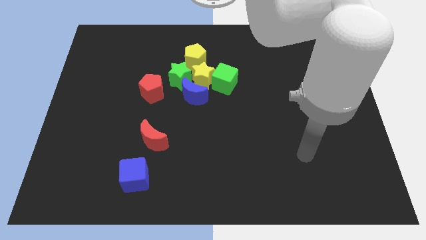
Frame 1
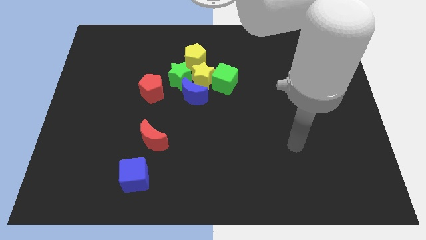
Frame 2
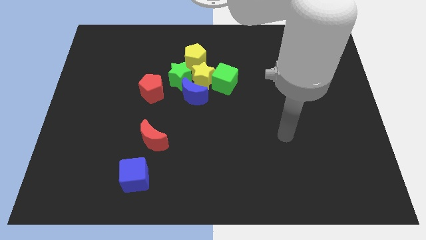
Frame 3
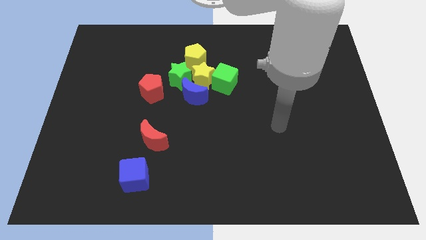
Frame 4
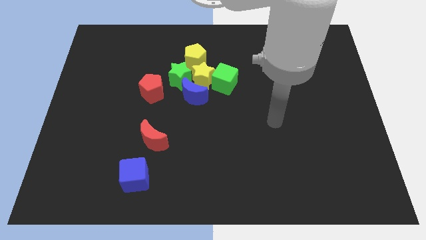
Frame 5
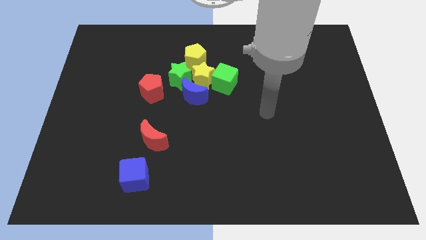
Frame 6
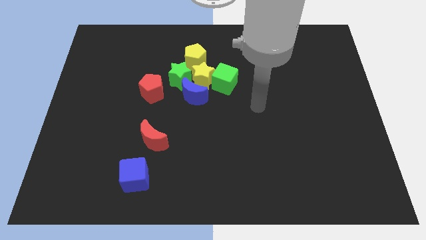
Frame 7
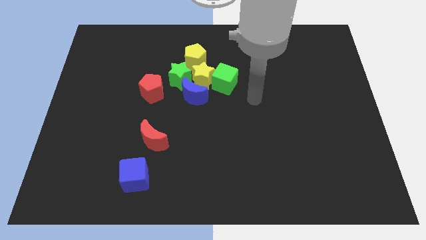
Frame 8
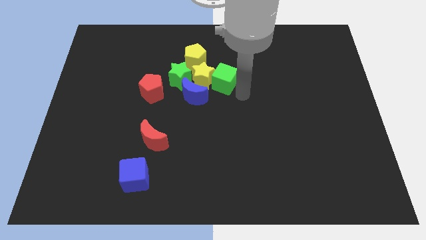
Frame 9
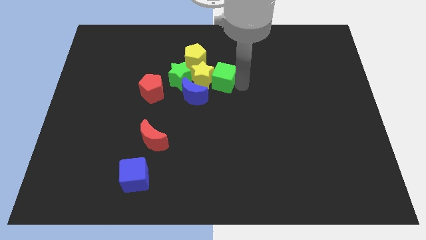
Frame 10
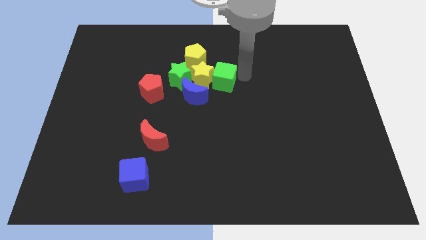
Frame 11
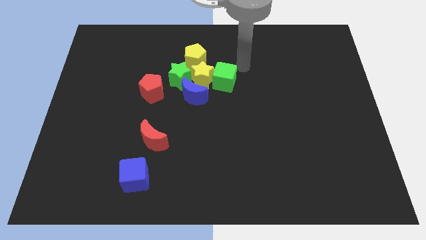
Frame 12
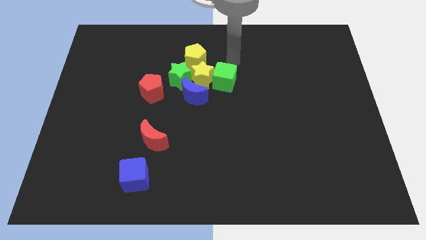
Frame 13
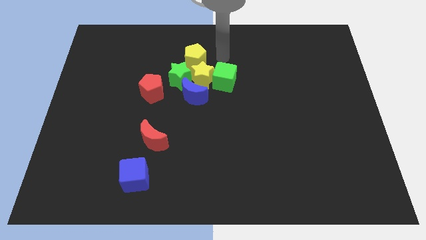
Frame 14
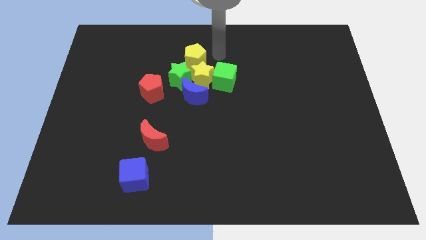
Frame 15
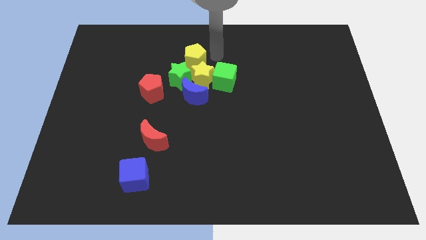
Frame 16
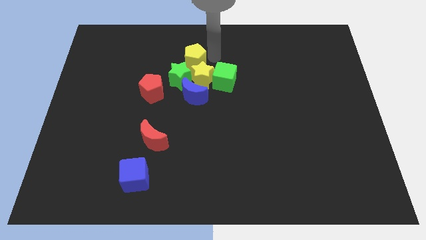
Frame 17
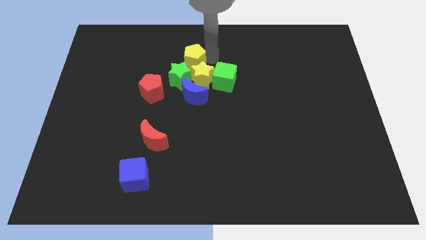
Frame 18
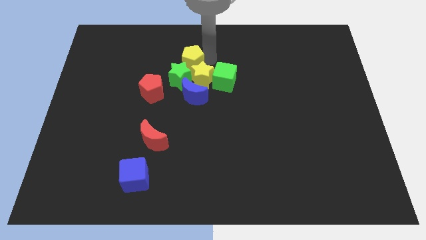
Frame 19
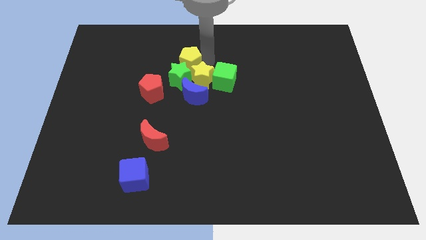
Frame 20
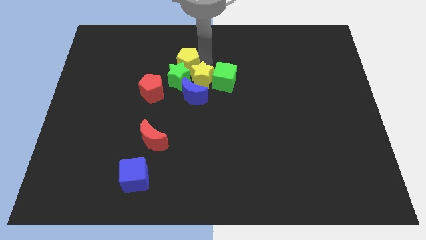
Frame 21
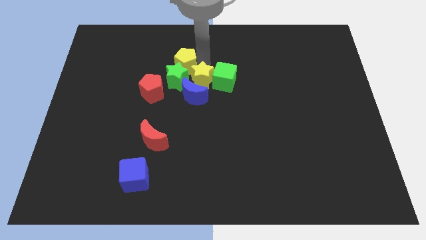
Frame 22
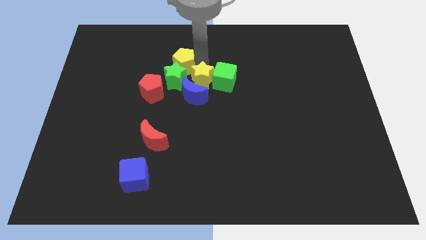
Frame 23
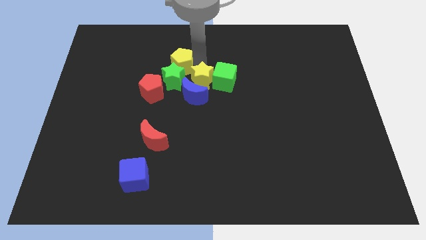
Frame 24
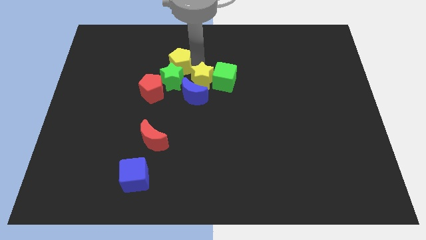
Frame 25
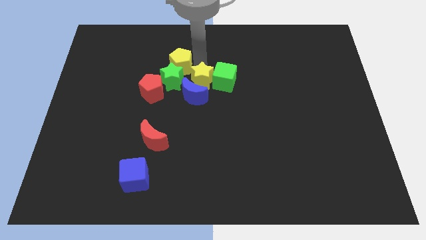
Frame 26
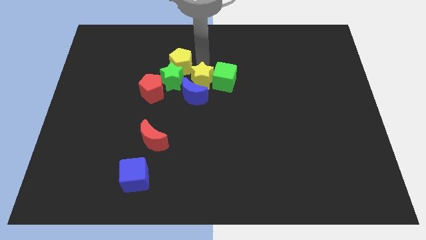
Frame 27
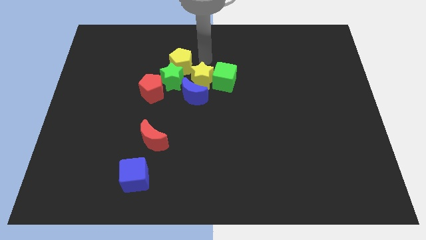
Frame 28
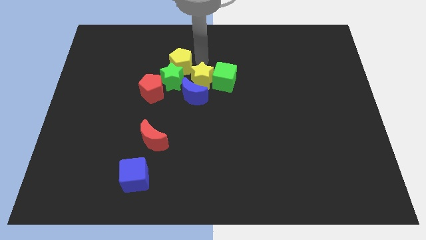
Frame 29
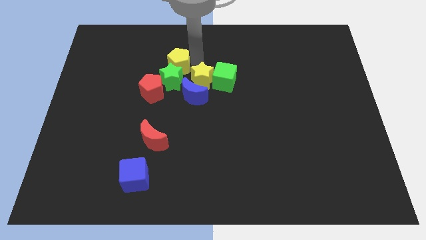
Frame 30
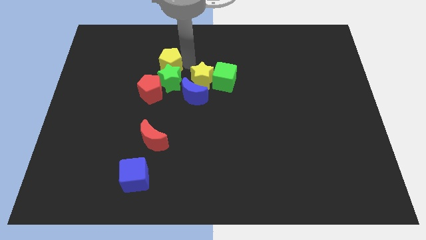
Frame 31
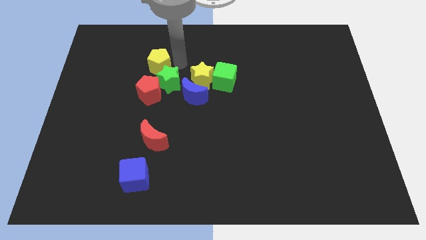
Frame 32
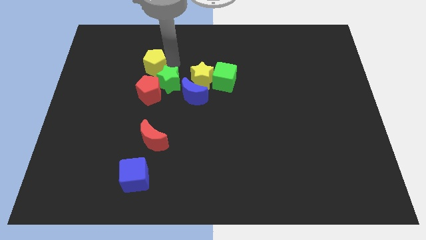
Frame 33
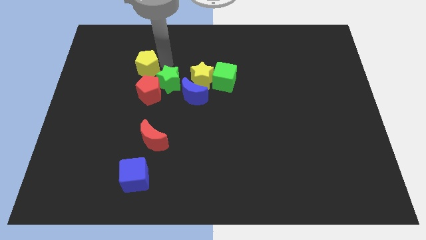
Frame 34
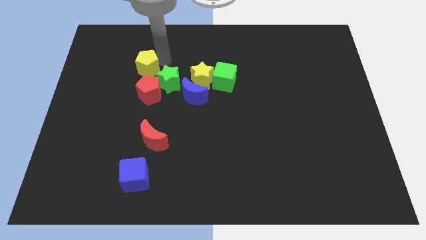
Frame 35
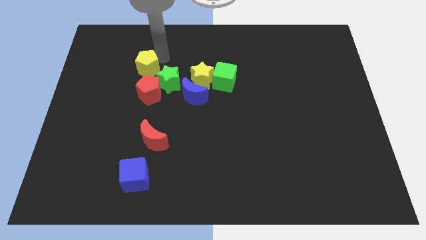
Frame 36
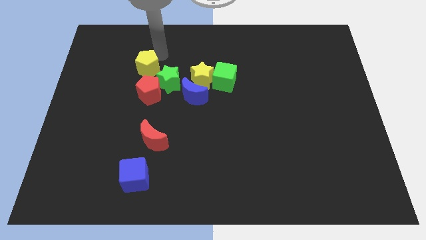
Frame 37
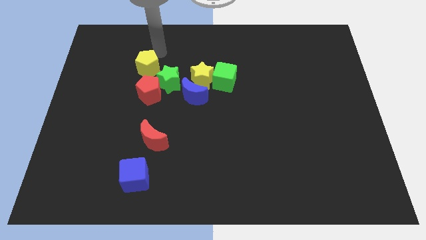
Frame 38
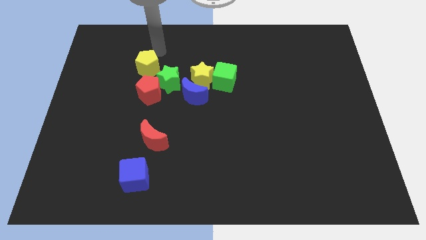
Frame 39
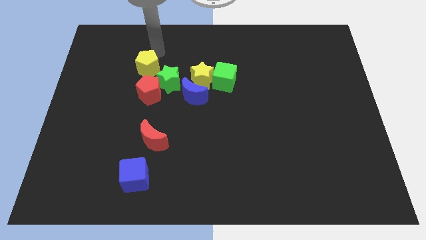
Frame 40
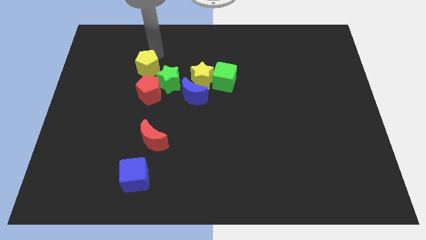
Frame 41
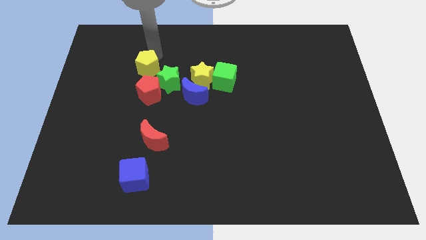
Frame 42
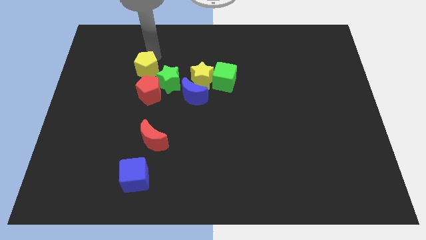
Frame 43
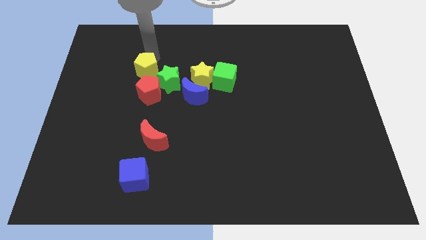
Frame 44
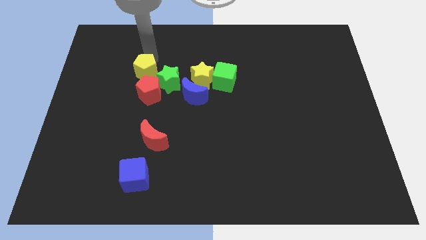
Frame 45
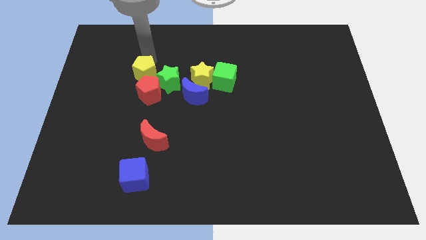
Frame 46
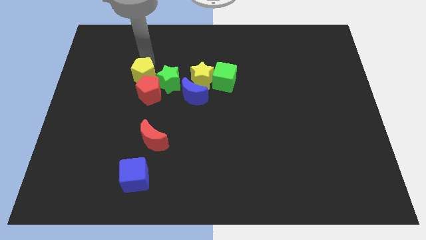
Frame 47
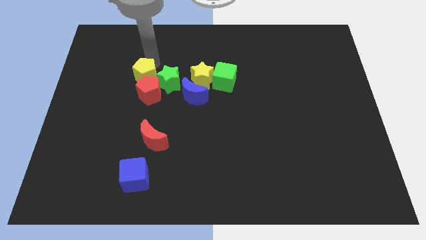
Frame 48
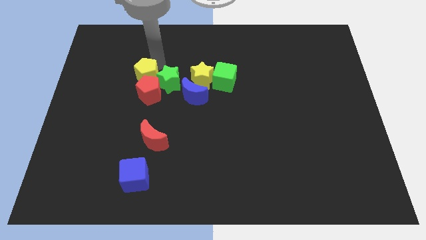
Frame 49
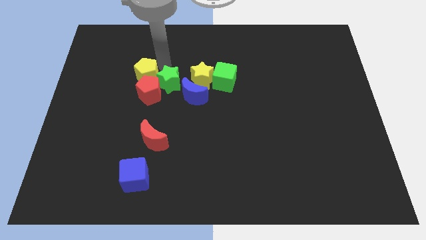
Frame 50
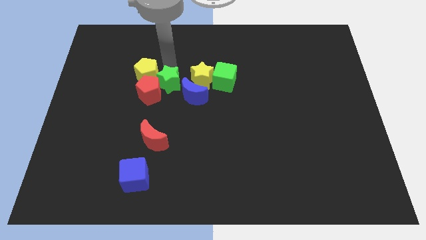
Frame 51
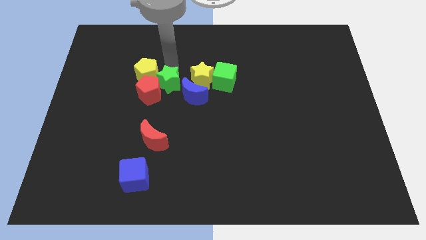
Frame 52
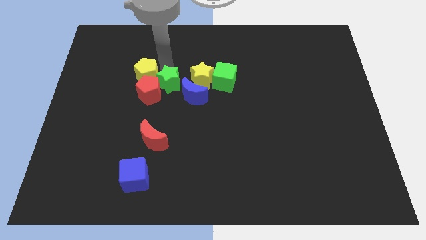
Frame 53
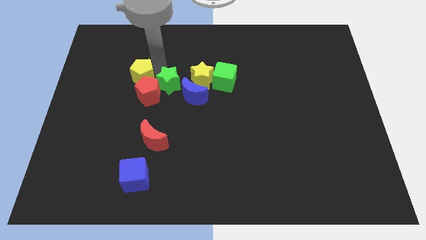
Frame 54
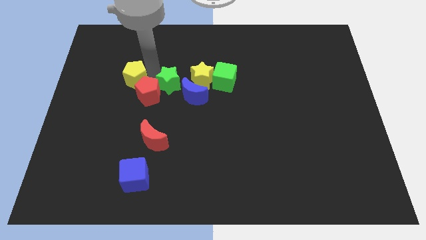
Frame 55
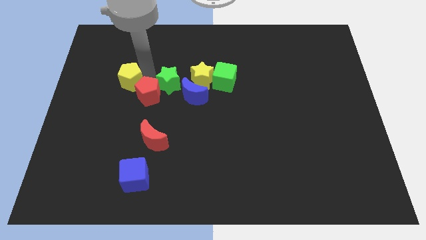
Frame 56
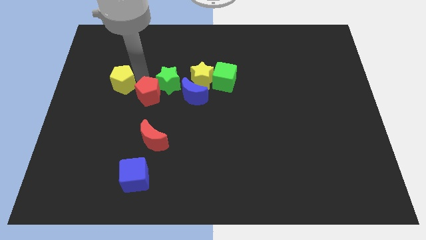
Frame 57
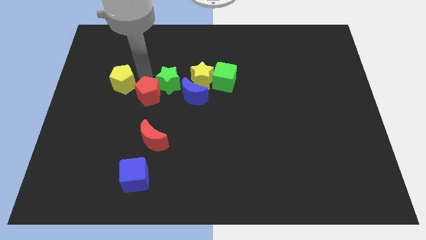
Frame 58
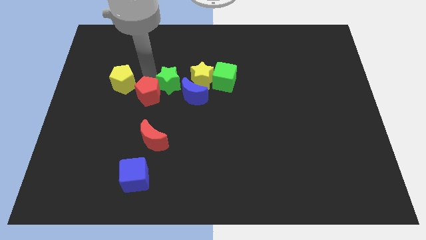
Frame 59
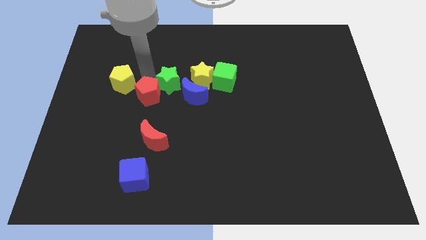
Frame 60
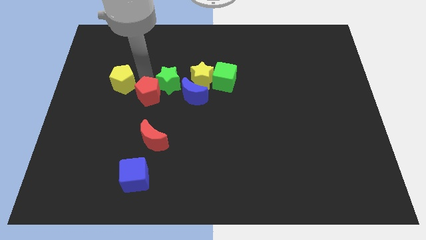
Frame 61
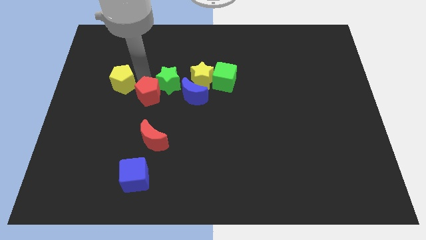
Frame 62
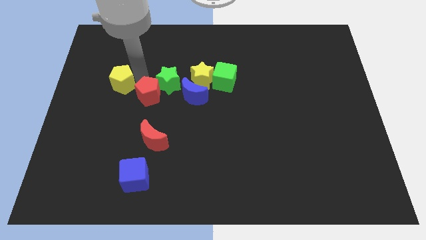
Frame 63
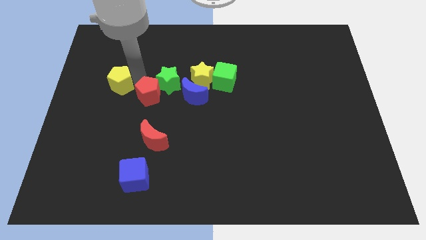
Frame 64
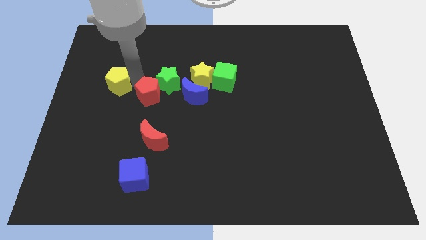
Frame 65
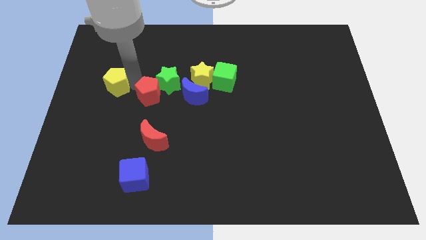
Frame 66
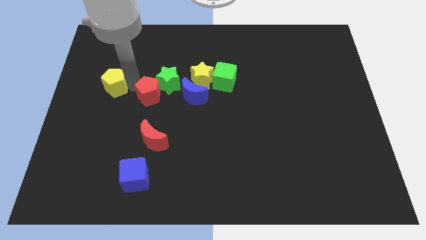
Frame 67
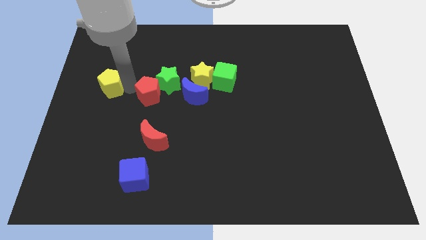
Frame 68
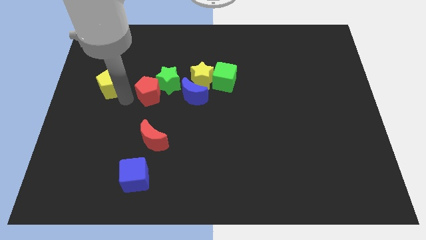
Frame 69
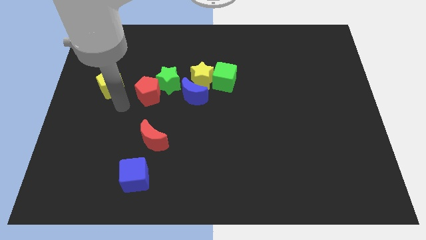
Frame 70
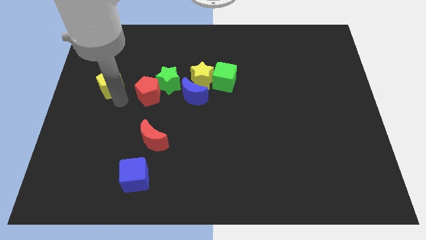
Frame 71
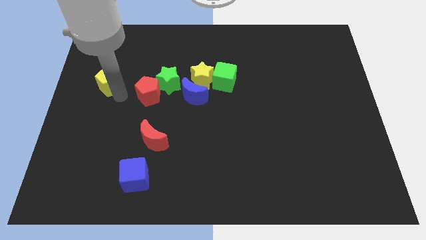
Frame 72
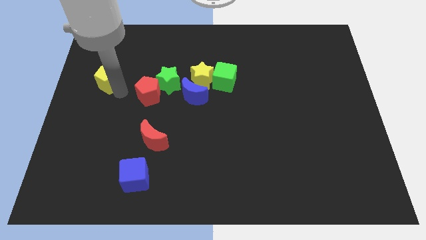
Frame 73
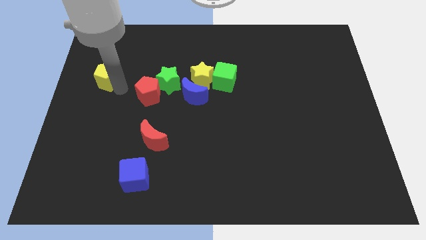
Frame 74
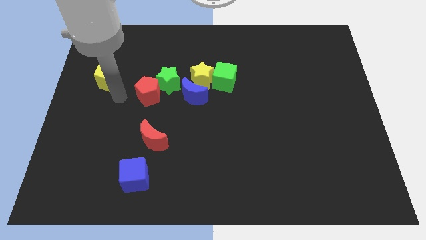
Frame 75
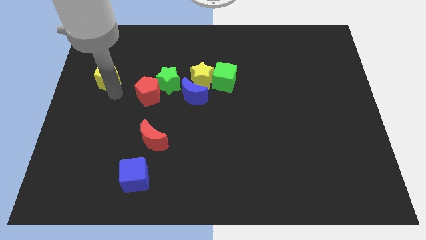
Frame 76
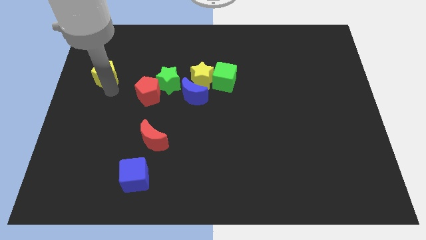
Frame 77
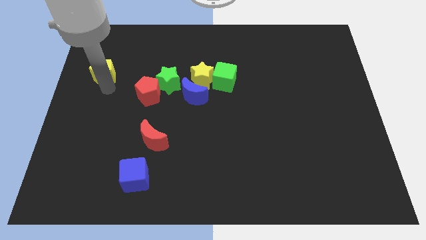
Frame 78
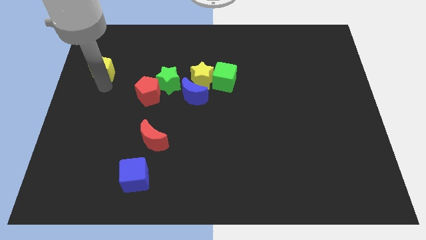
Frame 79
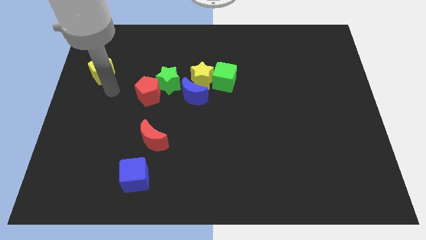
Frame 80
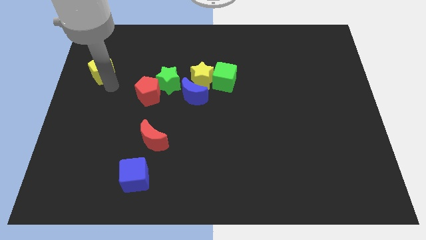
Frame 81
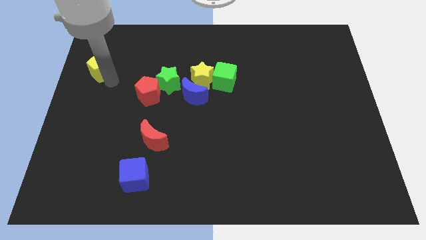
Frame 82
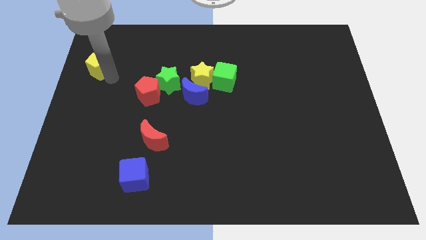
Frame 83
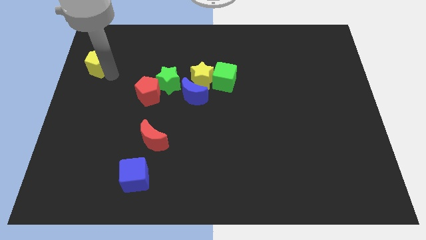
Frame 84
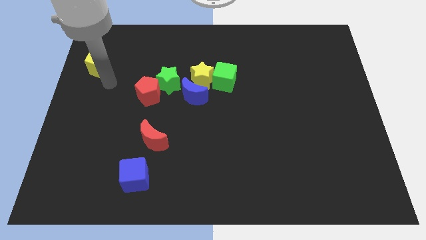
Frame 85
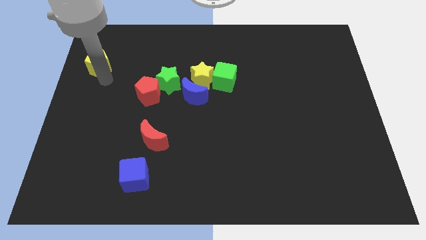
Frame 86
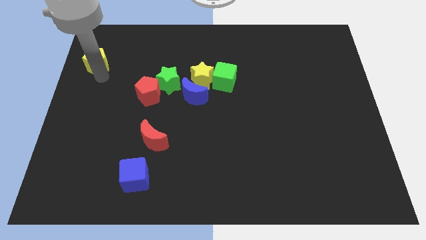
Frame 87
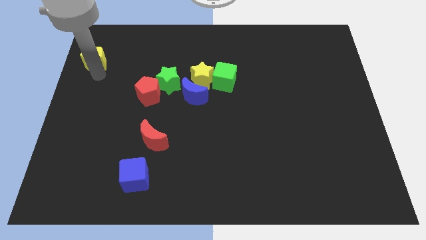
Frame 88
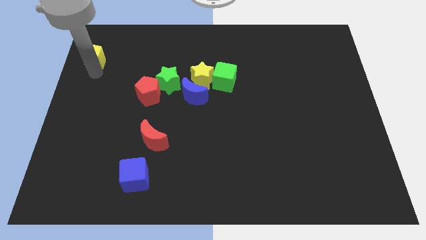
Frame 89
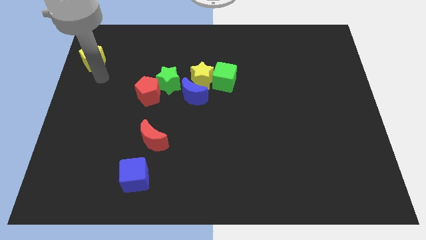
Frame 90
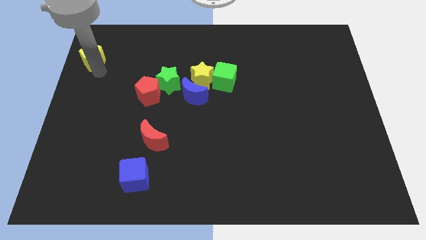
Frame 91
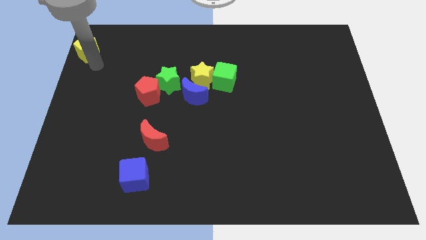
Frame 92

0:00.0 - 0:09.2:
move the yellow pentagon to the top left corner
